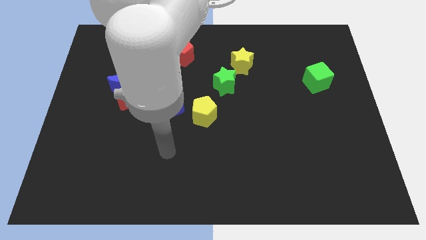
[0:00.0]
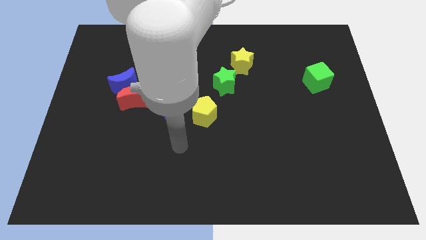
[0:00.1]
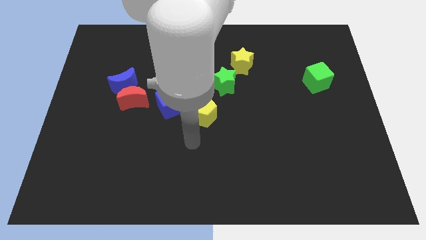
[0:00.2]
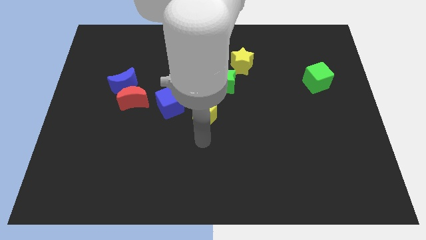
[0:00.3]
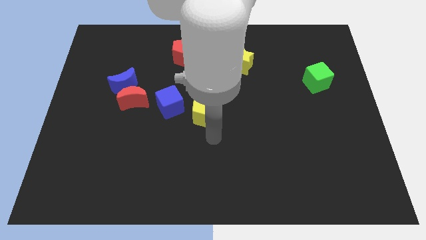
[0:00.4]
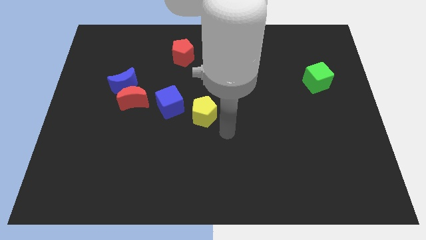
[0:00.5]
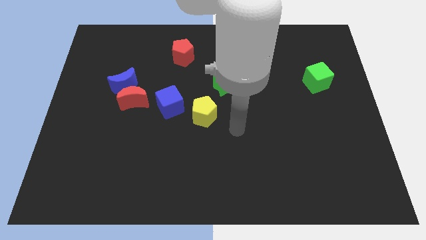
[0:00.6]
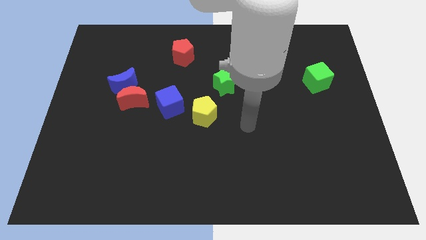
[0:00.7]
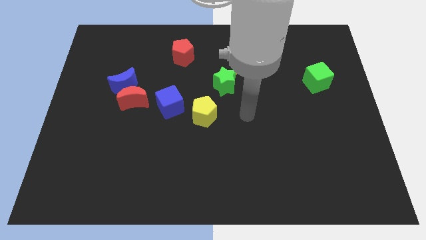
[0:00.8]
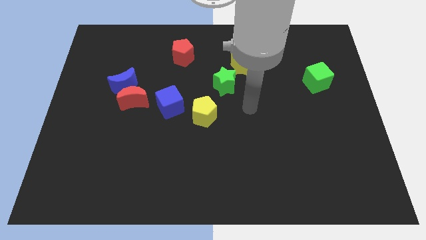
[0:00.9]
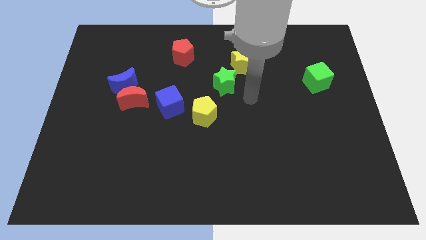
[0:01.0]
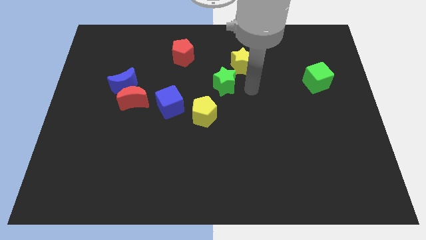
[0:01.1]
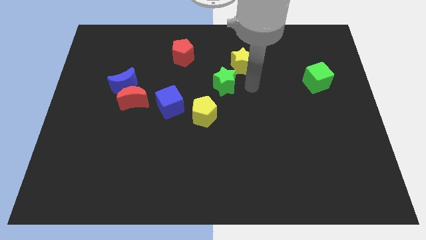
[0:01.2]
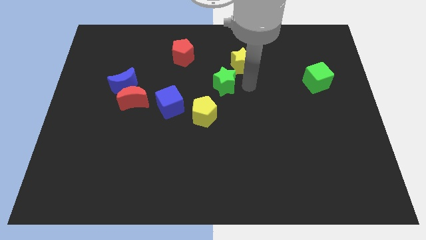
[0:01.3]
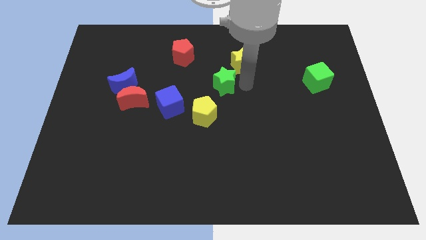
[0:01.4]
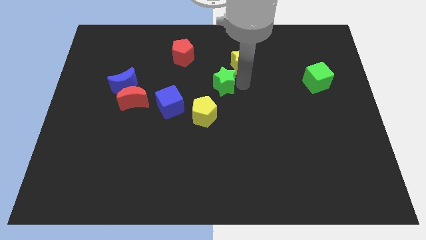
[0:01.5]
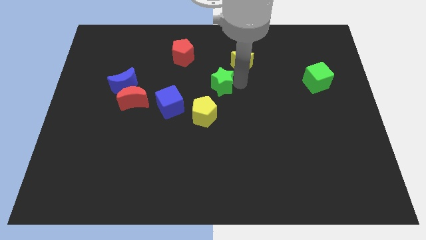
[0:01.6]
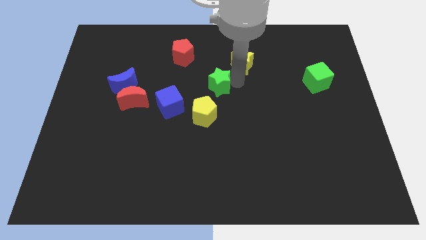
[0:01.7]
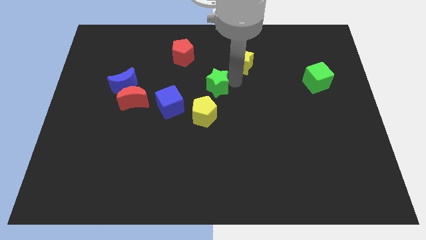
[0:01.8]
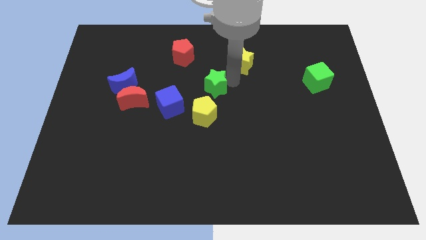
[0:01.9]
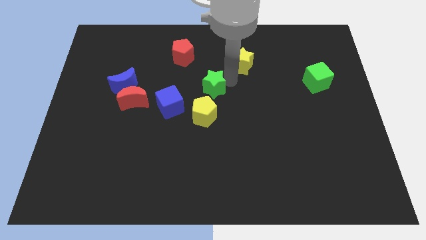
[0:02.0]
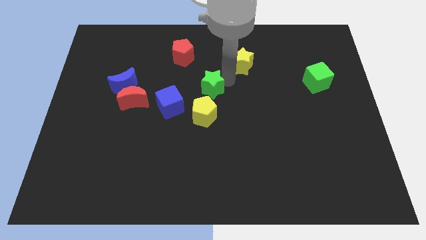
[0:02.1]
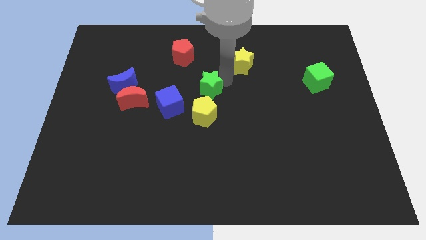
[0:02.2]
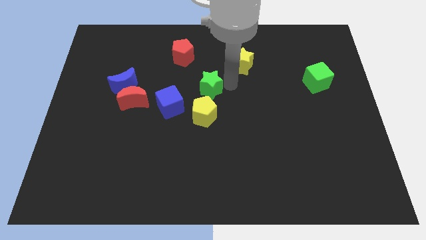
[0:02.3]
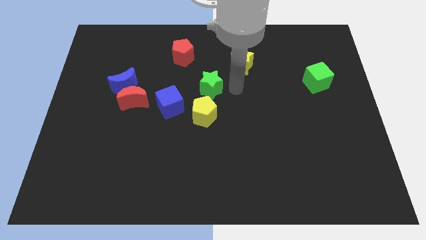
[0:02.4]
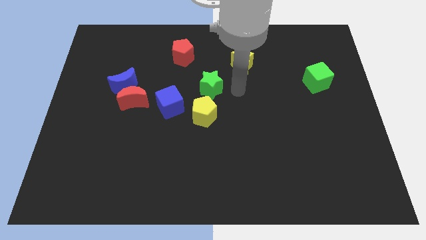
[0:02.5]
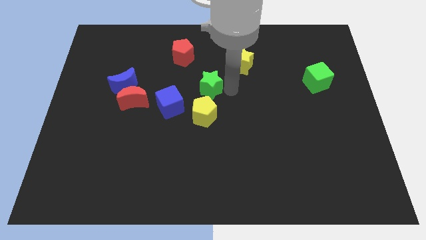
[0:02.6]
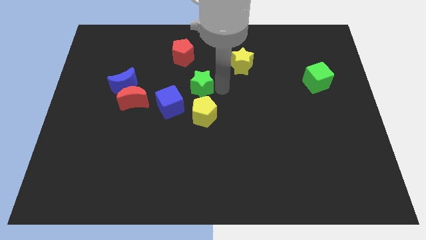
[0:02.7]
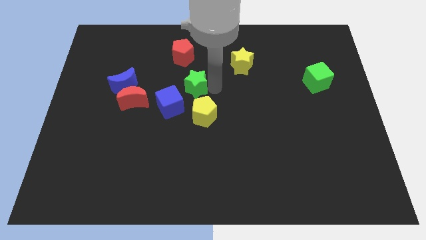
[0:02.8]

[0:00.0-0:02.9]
push the green star somewhat left

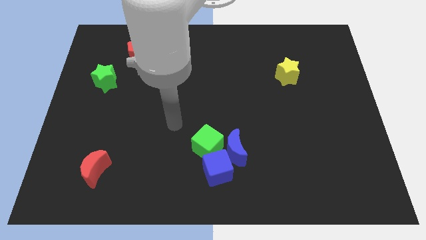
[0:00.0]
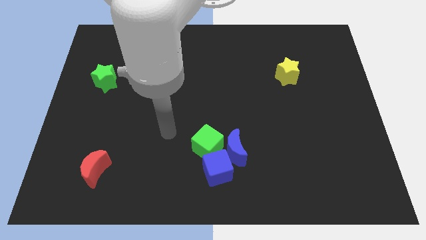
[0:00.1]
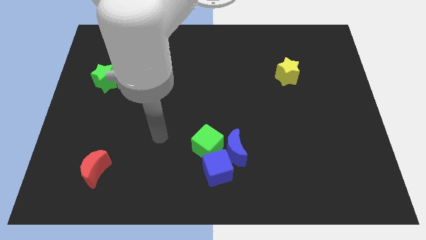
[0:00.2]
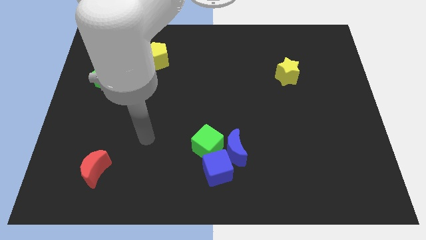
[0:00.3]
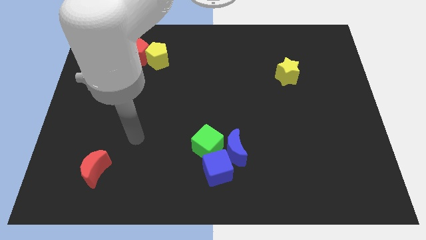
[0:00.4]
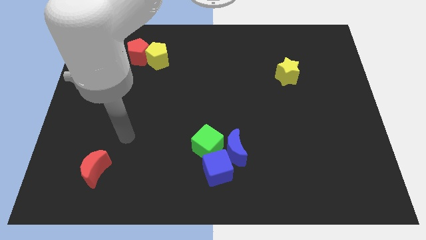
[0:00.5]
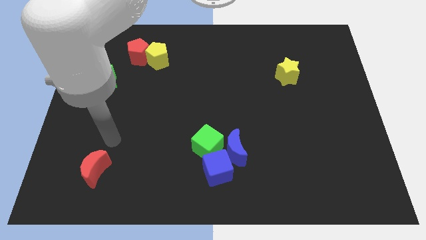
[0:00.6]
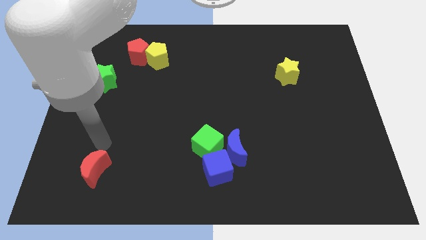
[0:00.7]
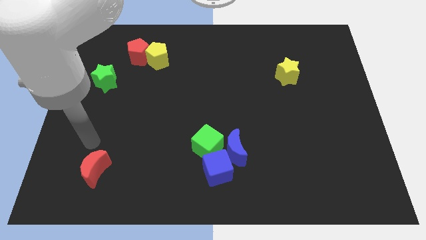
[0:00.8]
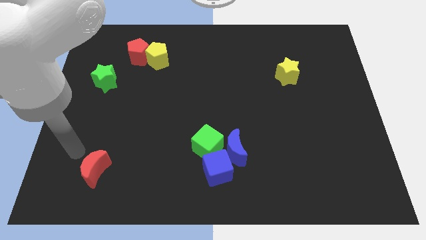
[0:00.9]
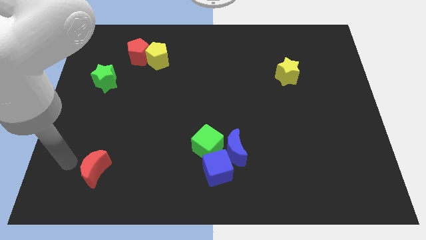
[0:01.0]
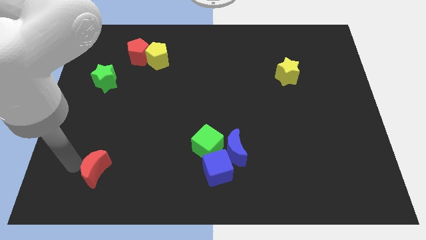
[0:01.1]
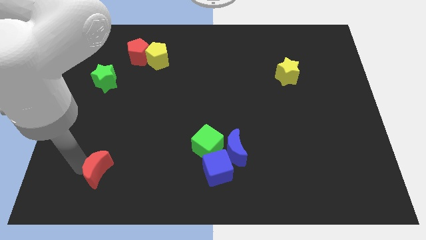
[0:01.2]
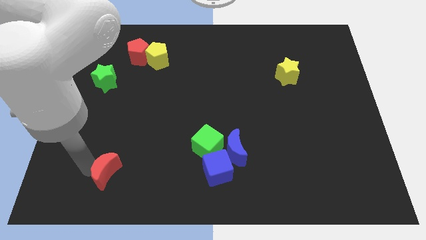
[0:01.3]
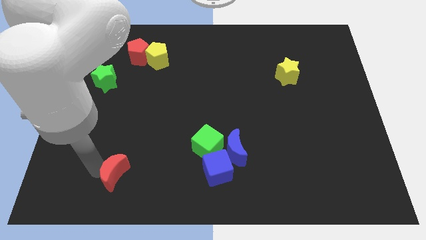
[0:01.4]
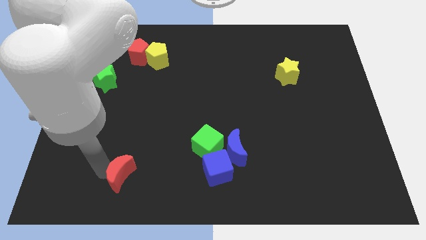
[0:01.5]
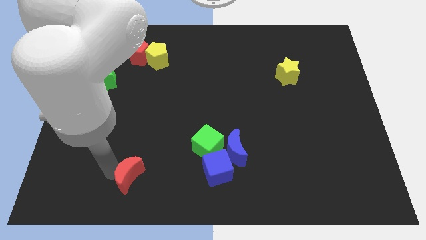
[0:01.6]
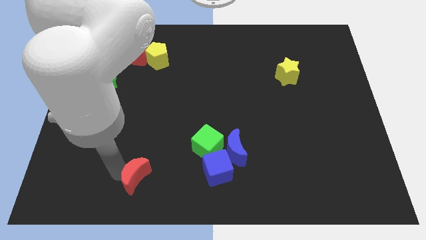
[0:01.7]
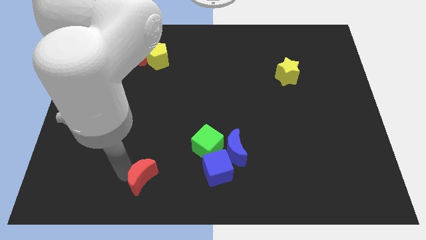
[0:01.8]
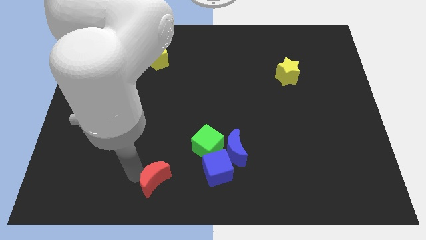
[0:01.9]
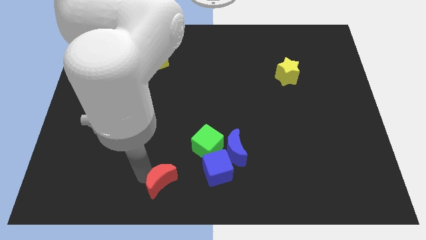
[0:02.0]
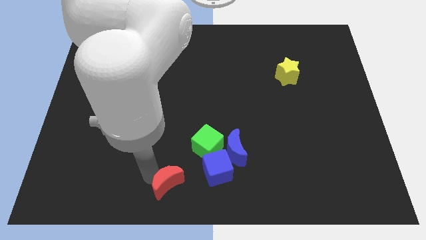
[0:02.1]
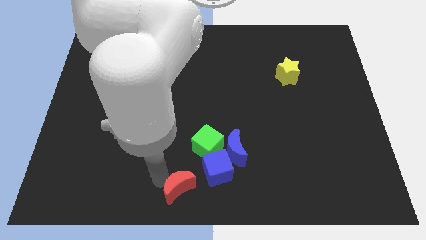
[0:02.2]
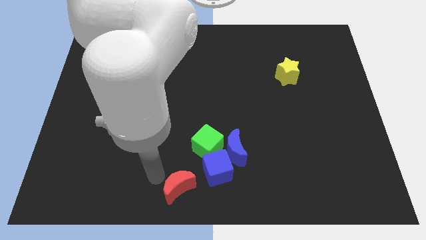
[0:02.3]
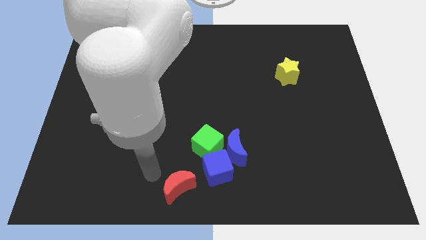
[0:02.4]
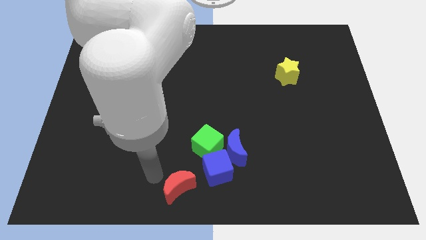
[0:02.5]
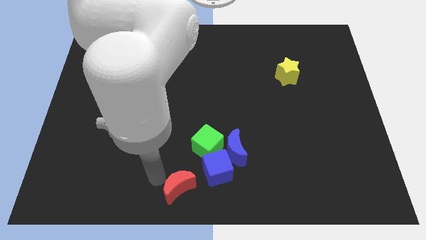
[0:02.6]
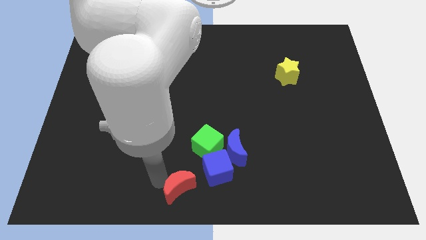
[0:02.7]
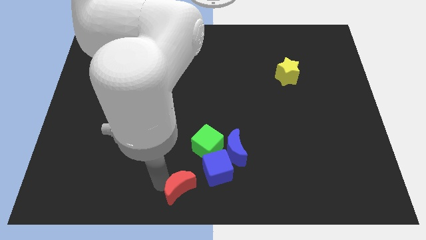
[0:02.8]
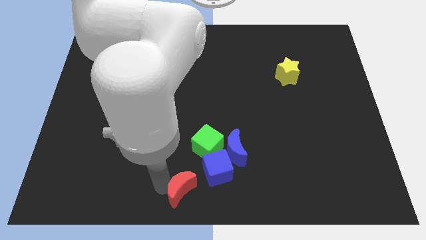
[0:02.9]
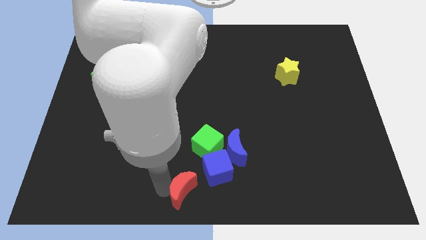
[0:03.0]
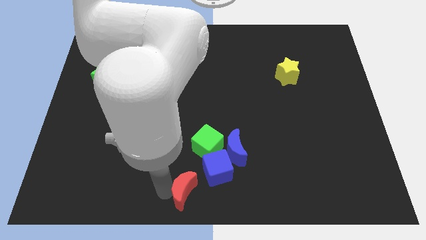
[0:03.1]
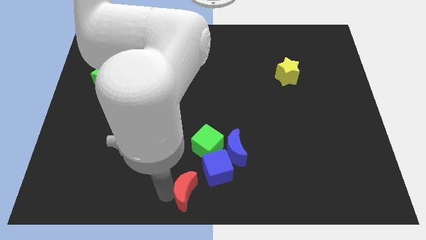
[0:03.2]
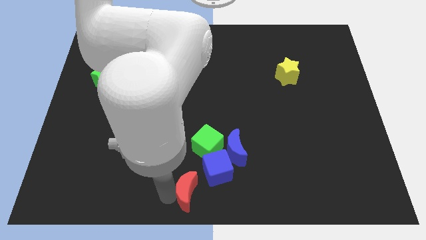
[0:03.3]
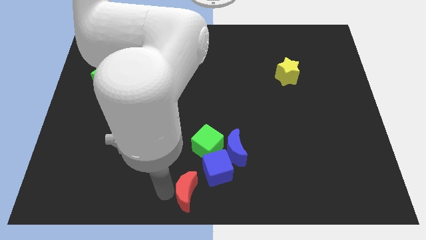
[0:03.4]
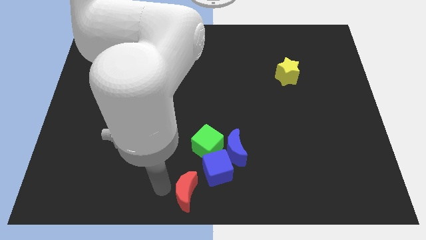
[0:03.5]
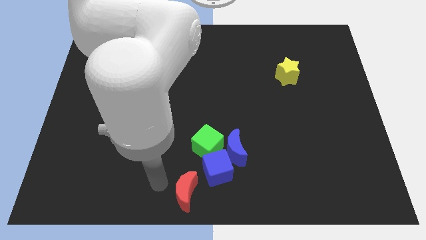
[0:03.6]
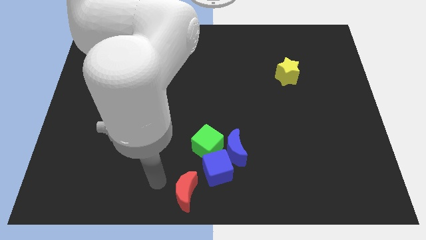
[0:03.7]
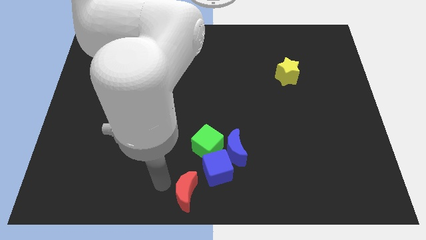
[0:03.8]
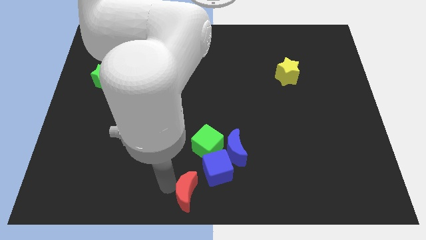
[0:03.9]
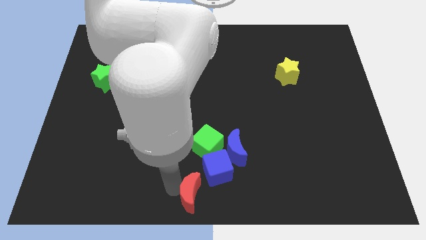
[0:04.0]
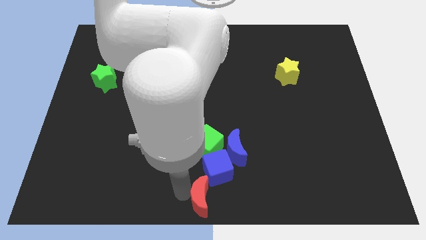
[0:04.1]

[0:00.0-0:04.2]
slide the red moon to the right

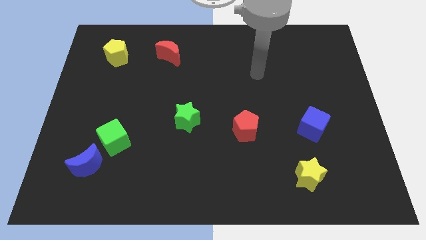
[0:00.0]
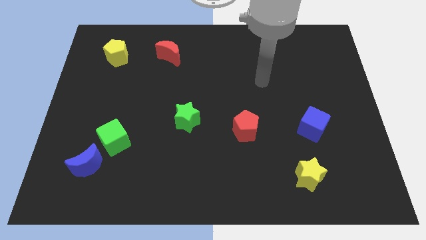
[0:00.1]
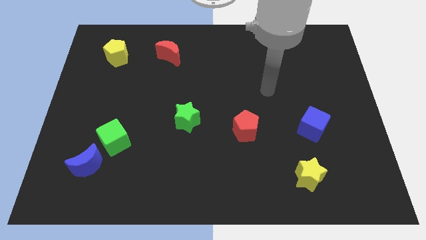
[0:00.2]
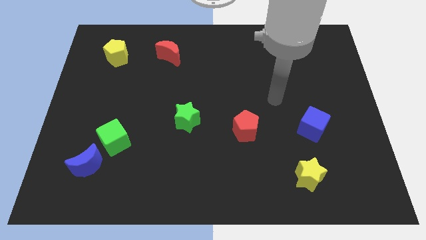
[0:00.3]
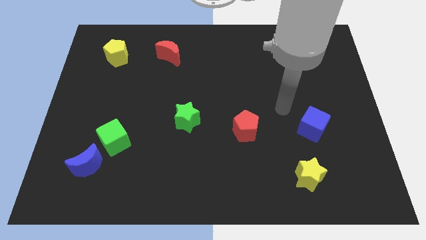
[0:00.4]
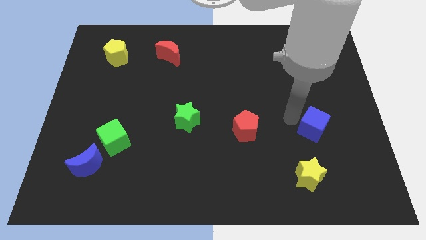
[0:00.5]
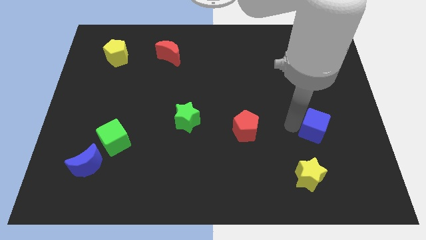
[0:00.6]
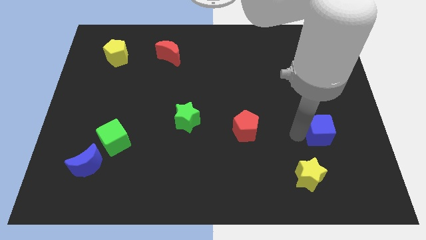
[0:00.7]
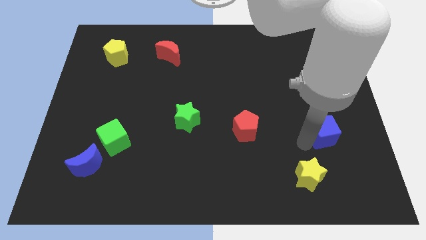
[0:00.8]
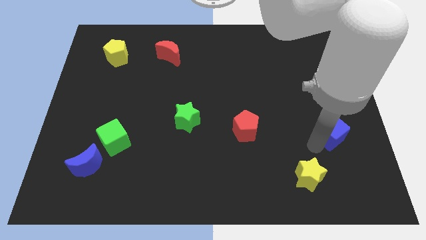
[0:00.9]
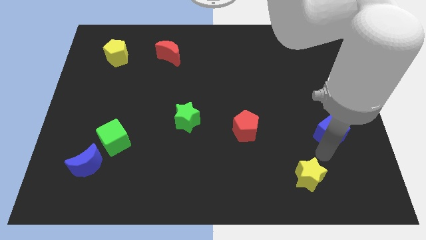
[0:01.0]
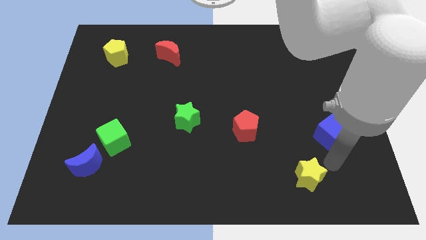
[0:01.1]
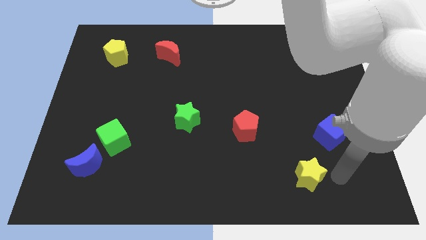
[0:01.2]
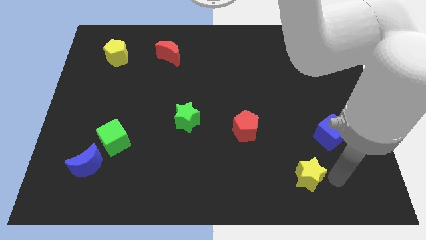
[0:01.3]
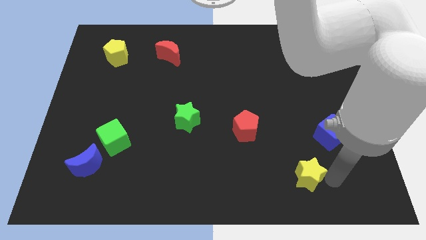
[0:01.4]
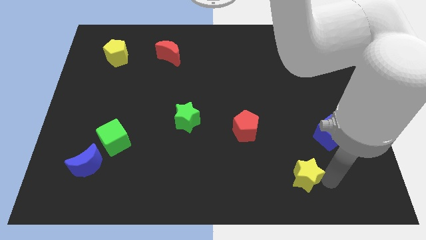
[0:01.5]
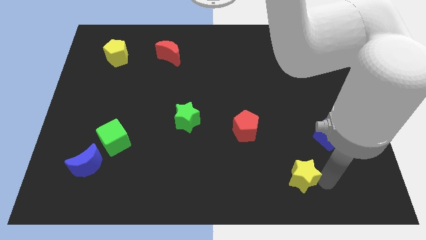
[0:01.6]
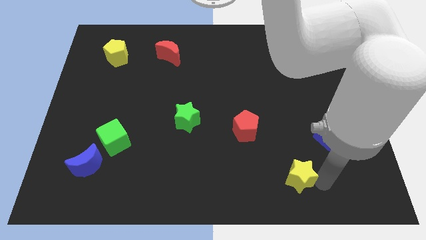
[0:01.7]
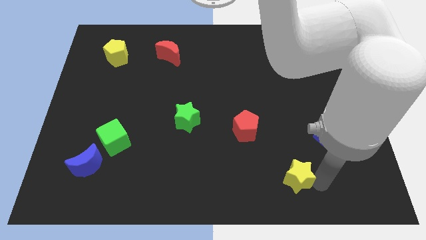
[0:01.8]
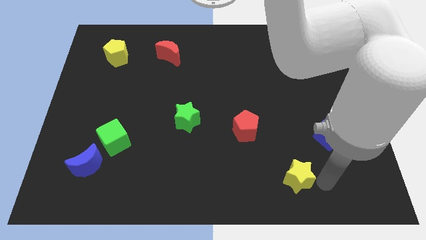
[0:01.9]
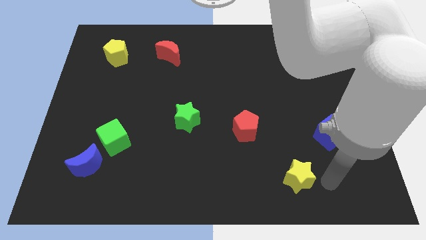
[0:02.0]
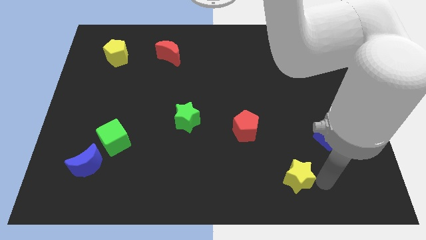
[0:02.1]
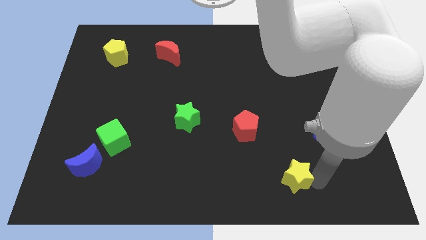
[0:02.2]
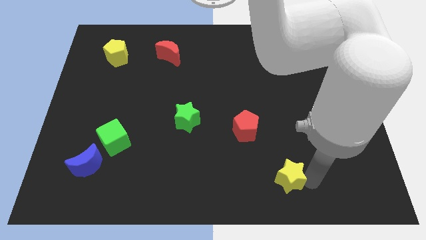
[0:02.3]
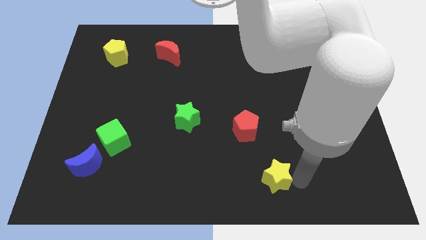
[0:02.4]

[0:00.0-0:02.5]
move the yellow star left slightly
